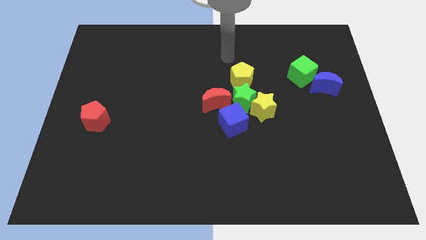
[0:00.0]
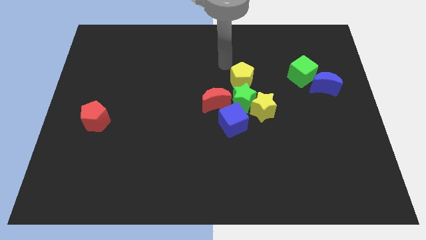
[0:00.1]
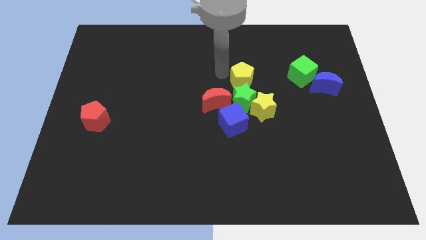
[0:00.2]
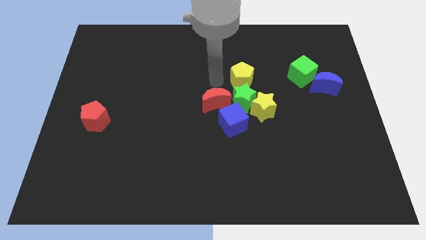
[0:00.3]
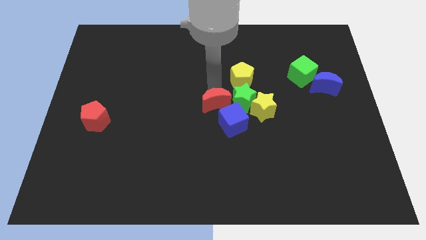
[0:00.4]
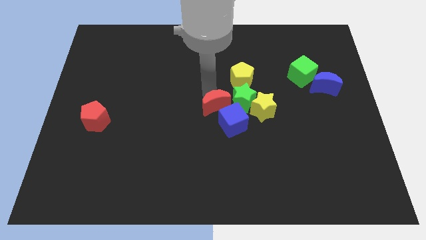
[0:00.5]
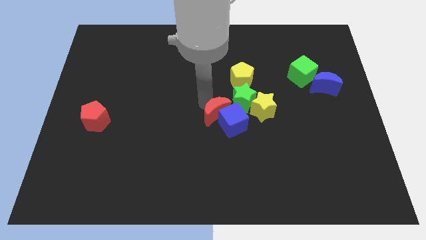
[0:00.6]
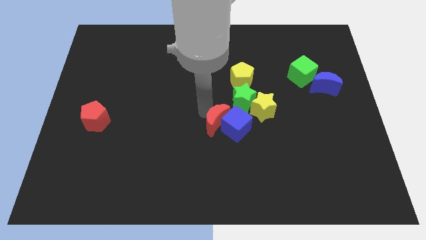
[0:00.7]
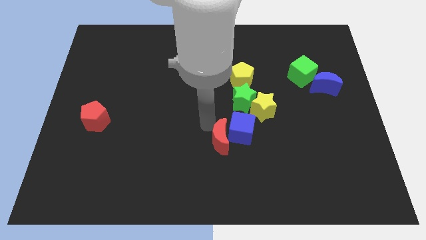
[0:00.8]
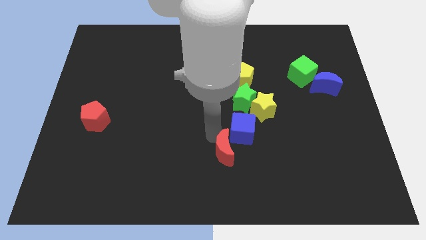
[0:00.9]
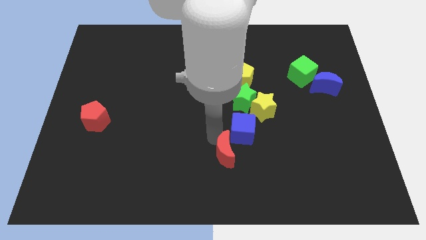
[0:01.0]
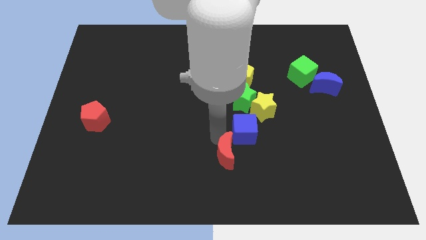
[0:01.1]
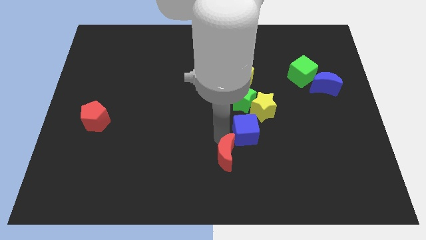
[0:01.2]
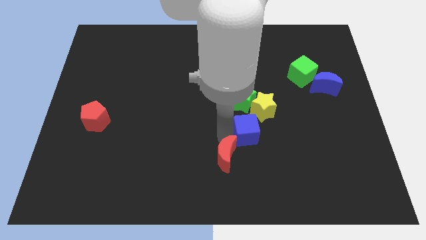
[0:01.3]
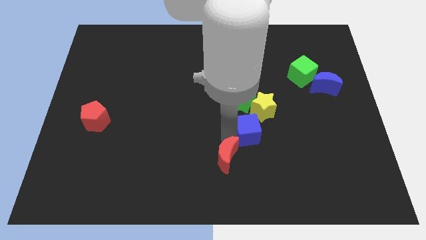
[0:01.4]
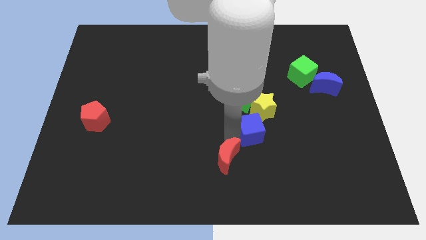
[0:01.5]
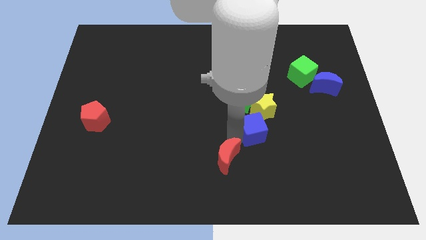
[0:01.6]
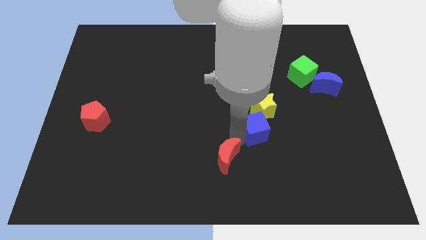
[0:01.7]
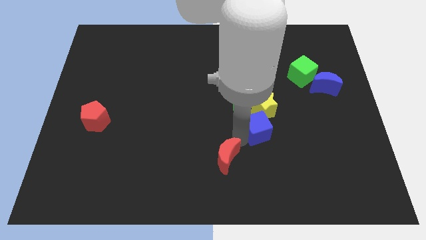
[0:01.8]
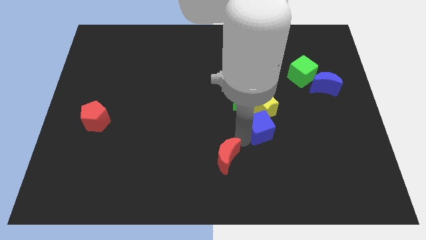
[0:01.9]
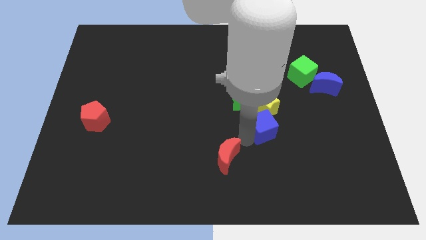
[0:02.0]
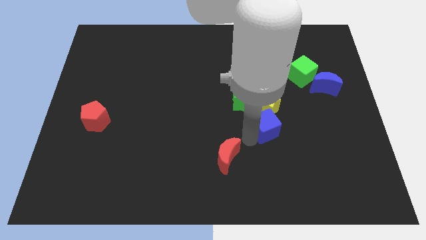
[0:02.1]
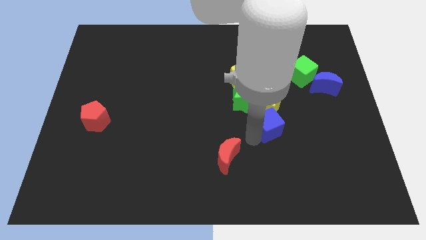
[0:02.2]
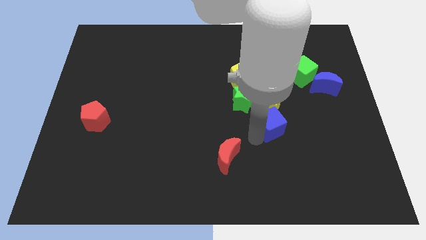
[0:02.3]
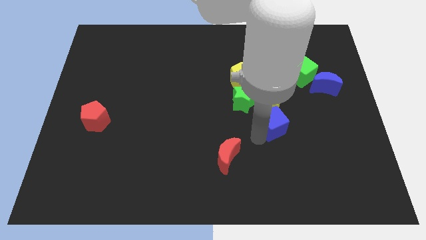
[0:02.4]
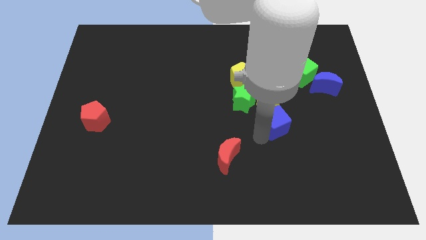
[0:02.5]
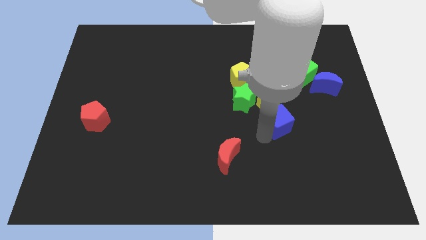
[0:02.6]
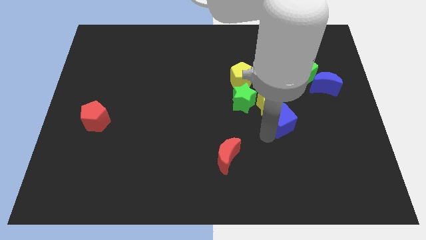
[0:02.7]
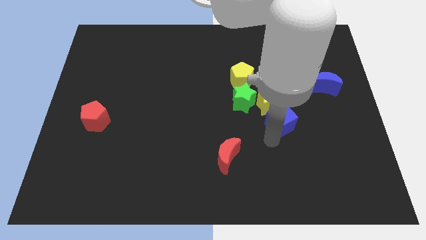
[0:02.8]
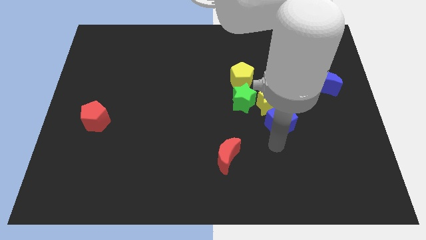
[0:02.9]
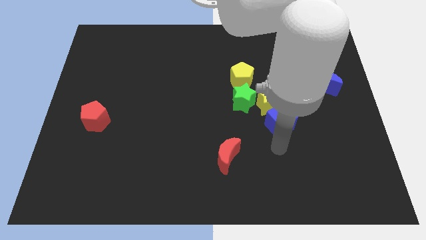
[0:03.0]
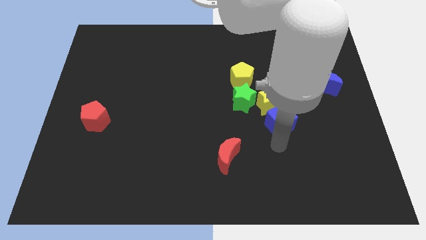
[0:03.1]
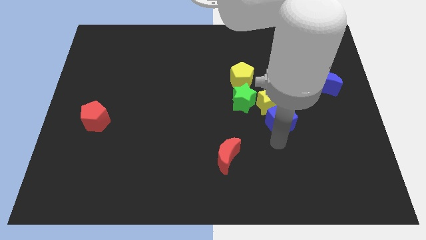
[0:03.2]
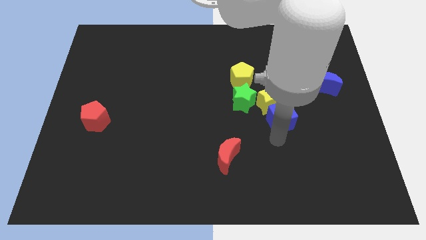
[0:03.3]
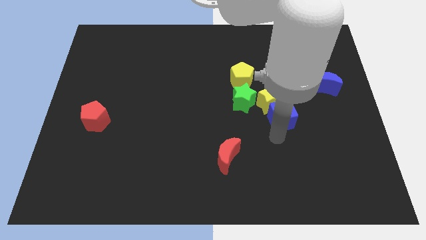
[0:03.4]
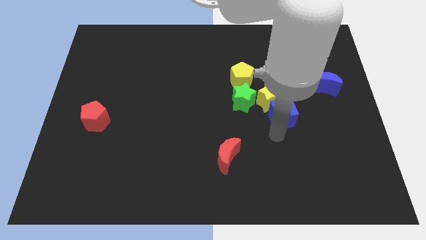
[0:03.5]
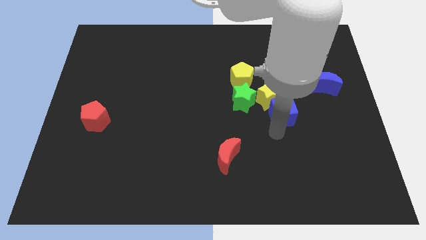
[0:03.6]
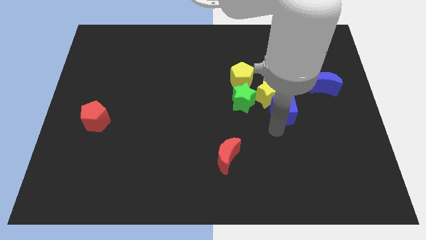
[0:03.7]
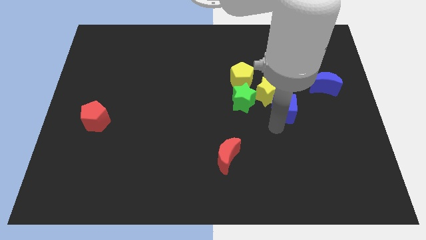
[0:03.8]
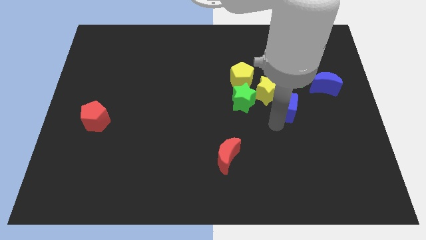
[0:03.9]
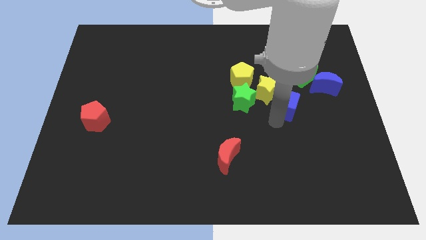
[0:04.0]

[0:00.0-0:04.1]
move the blue cube diagonally down and to the left of the green cube

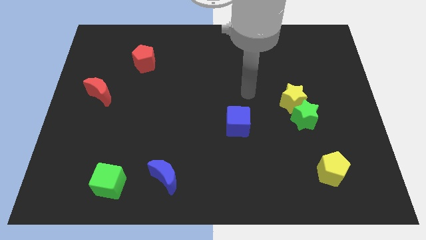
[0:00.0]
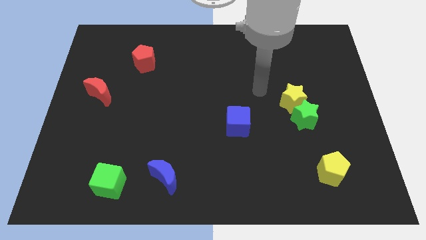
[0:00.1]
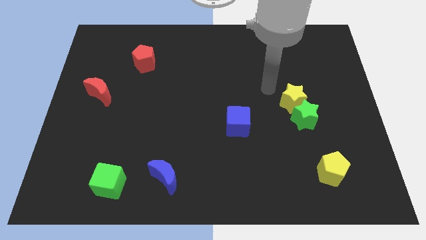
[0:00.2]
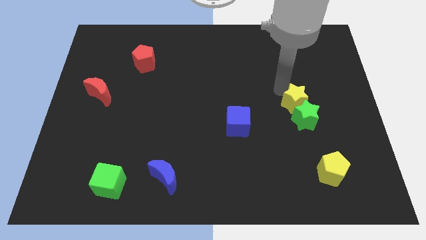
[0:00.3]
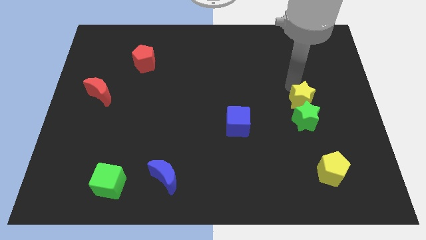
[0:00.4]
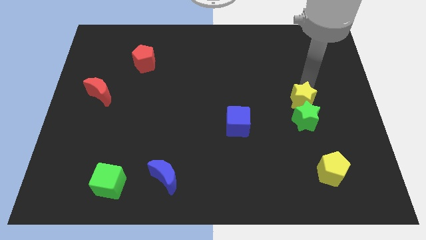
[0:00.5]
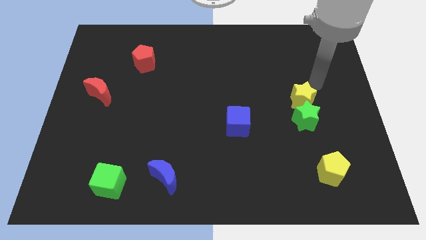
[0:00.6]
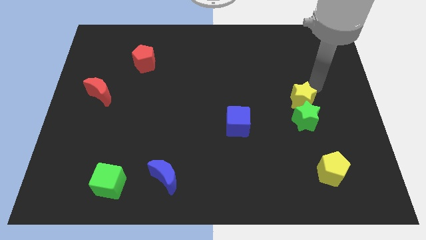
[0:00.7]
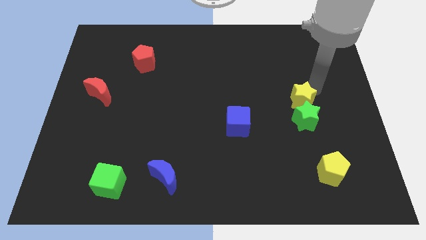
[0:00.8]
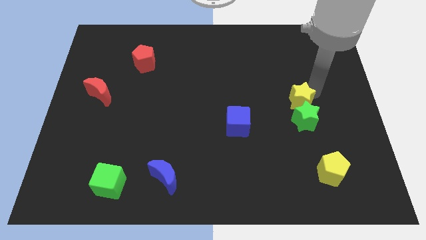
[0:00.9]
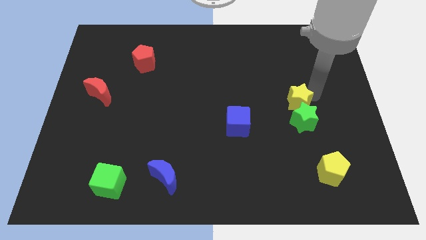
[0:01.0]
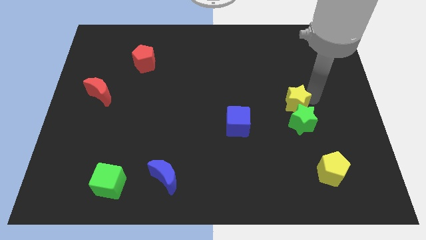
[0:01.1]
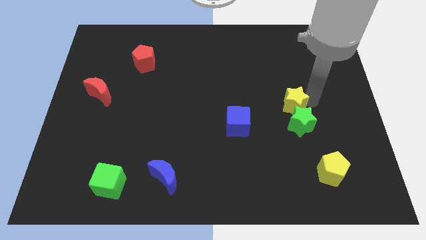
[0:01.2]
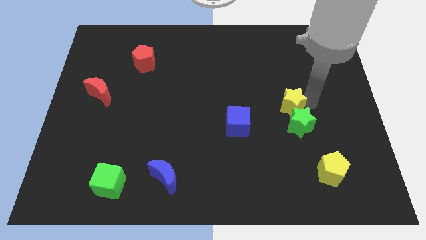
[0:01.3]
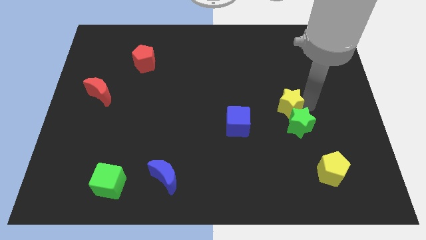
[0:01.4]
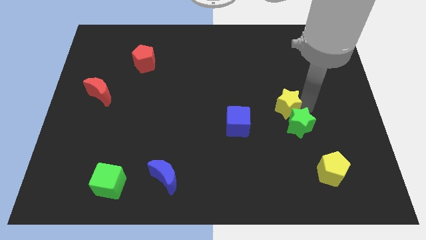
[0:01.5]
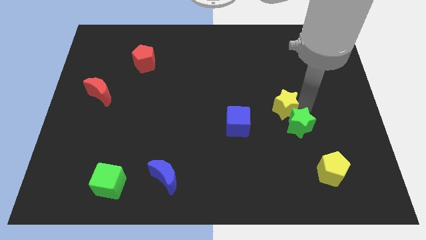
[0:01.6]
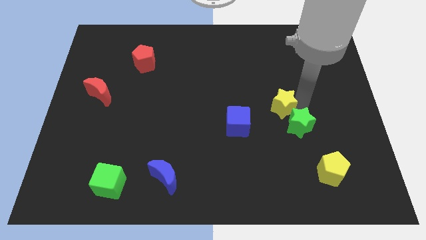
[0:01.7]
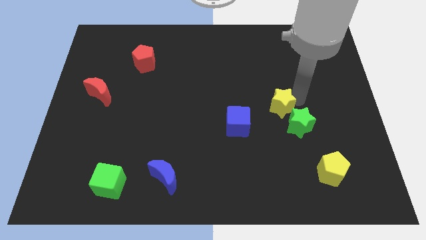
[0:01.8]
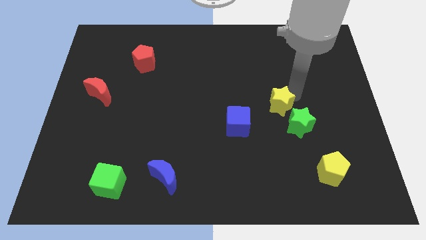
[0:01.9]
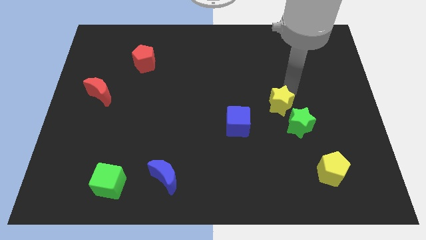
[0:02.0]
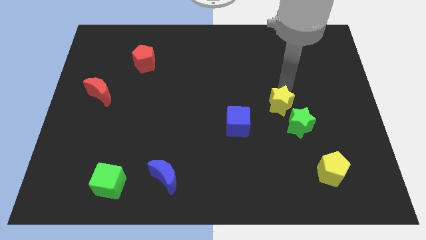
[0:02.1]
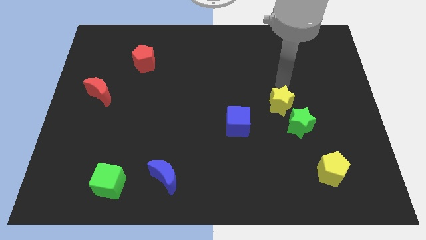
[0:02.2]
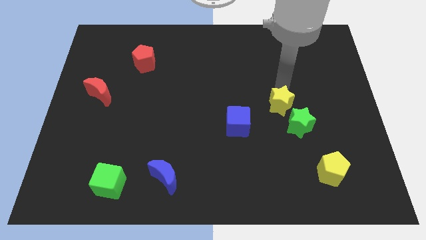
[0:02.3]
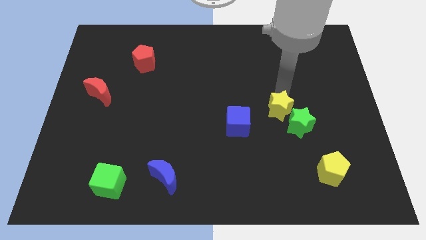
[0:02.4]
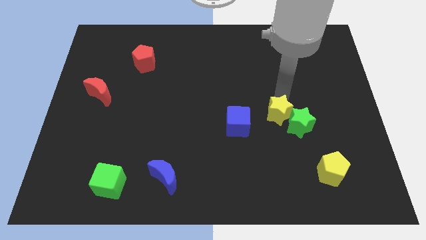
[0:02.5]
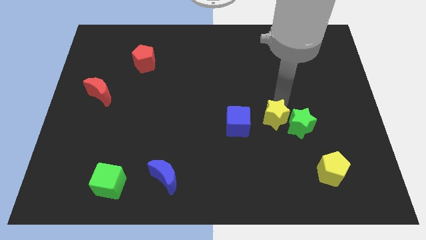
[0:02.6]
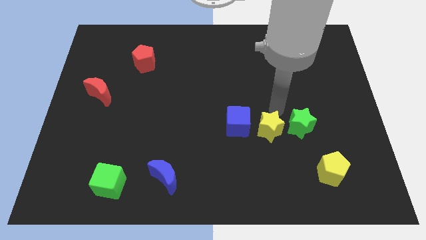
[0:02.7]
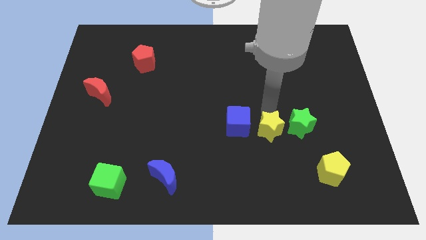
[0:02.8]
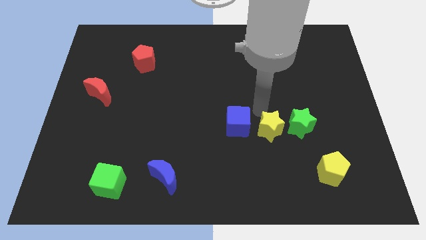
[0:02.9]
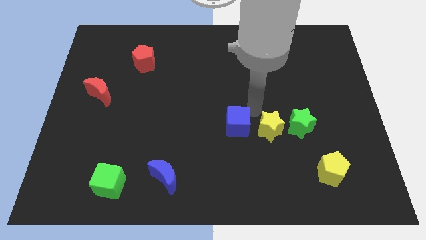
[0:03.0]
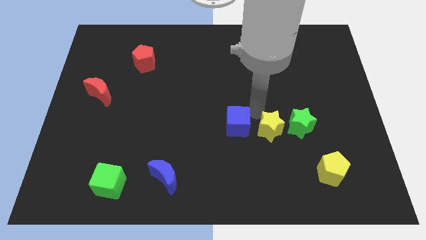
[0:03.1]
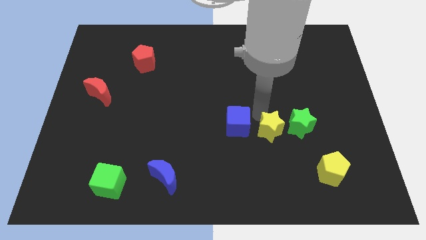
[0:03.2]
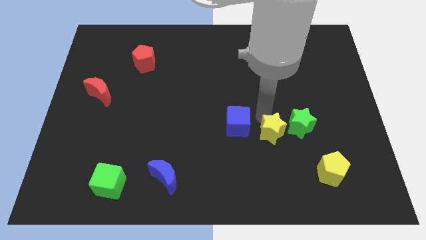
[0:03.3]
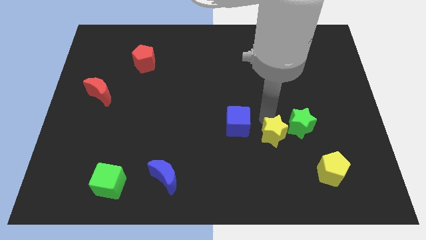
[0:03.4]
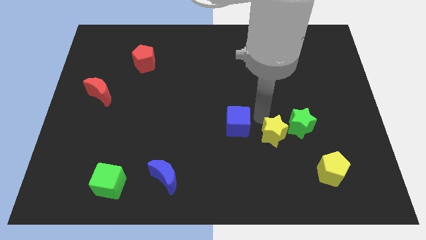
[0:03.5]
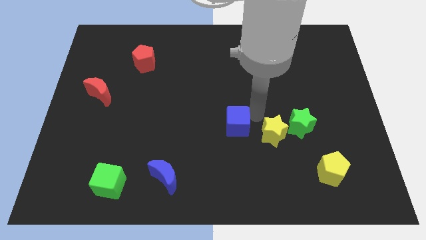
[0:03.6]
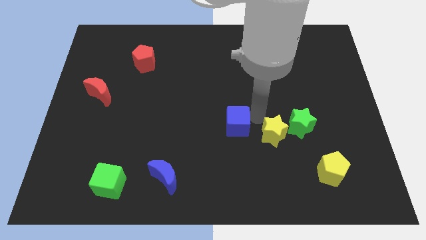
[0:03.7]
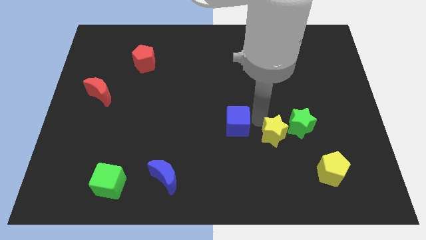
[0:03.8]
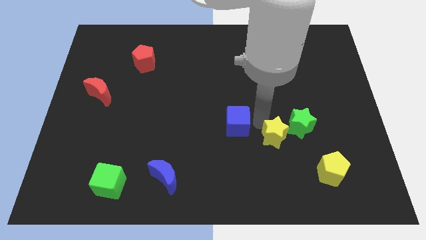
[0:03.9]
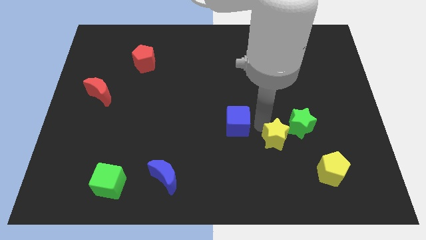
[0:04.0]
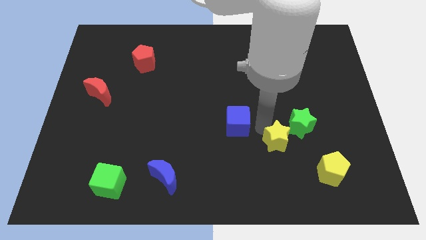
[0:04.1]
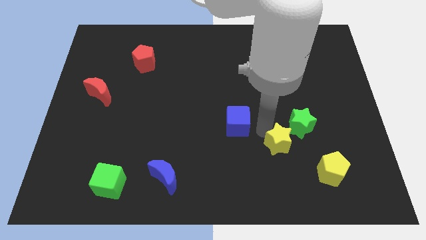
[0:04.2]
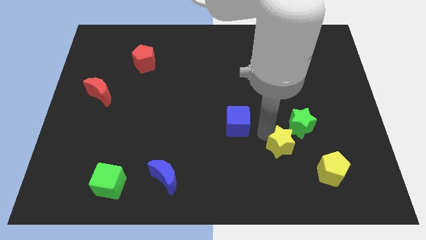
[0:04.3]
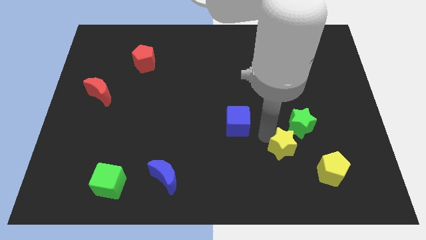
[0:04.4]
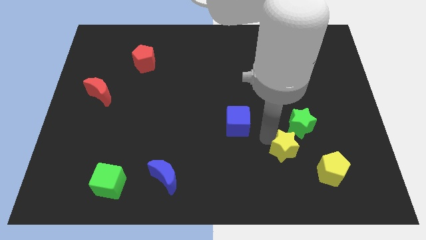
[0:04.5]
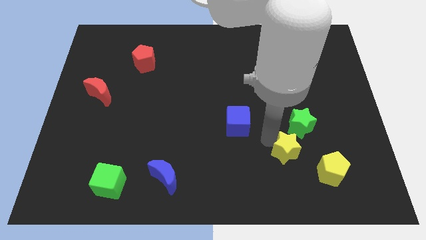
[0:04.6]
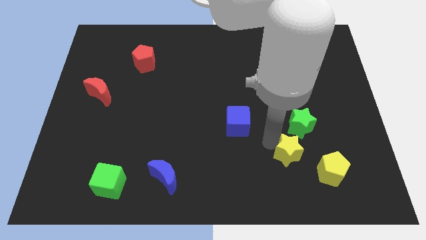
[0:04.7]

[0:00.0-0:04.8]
slide the yellow star left of the yellow pentagon
